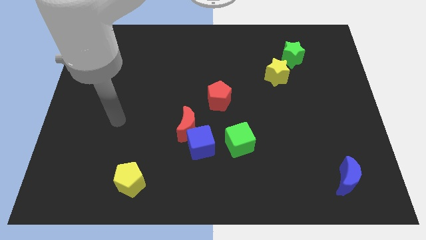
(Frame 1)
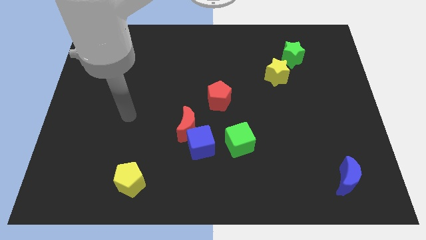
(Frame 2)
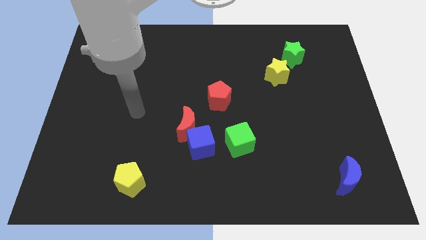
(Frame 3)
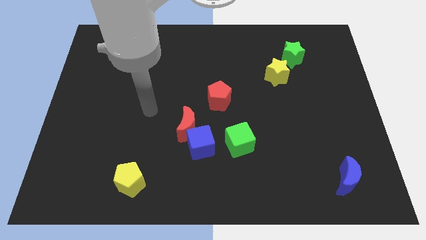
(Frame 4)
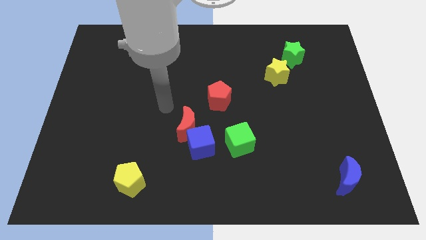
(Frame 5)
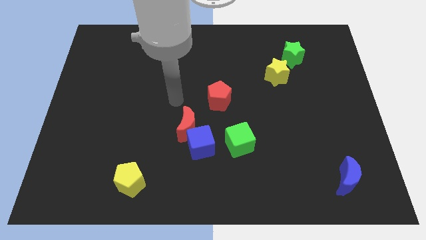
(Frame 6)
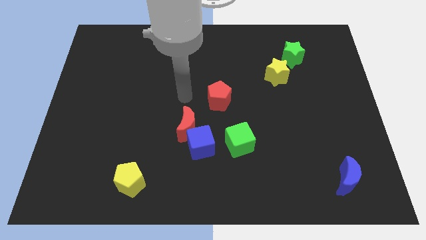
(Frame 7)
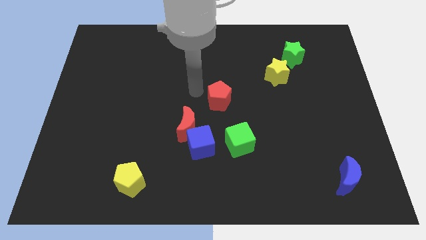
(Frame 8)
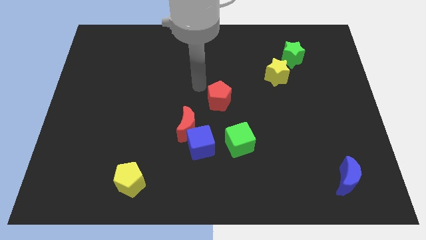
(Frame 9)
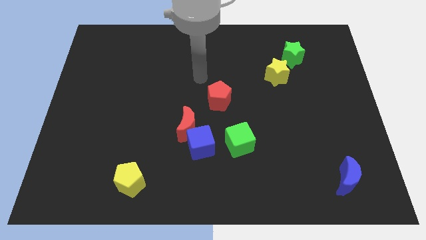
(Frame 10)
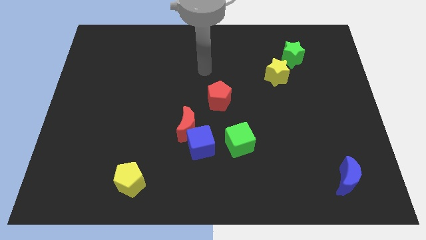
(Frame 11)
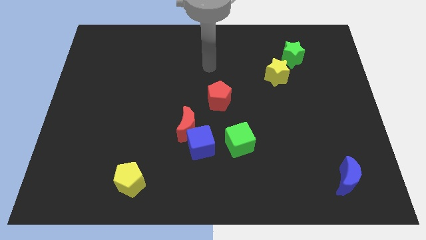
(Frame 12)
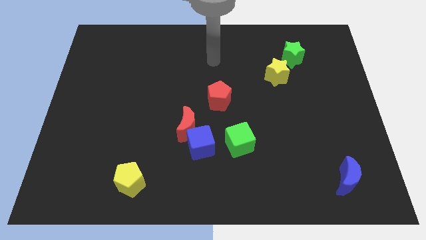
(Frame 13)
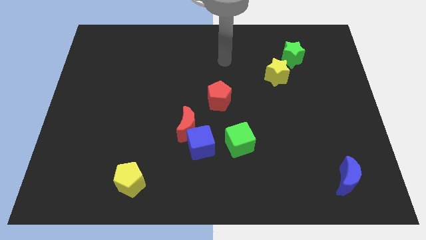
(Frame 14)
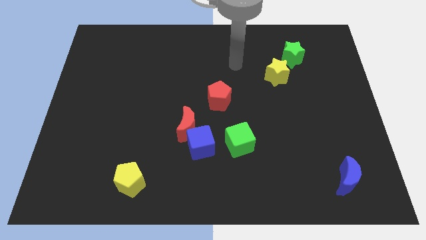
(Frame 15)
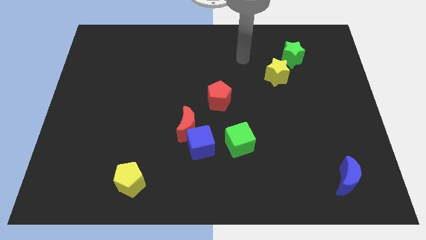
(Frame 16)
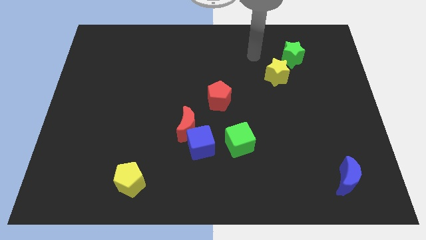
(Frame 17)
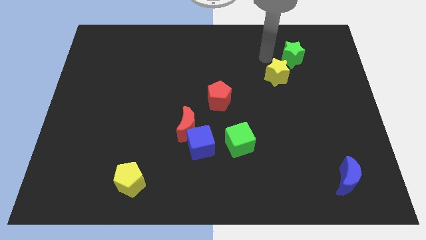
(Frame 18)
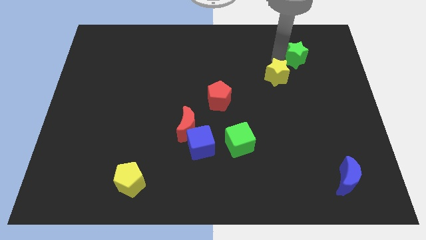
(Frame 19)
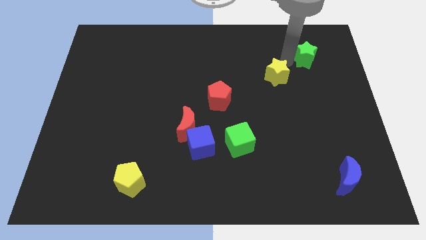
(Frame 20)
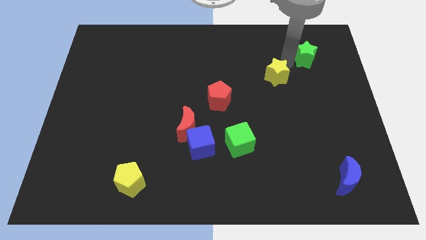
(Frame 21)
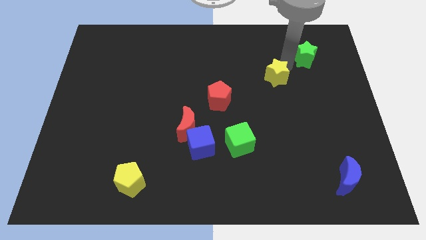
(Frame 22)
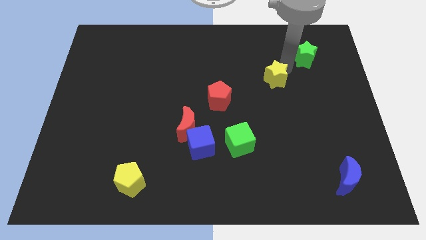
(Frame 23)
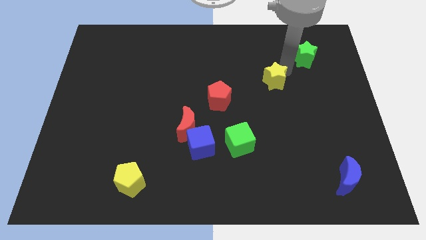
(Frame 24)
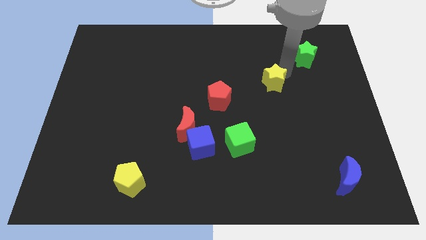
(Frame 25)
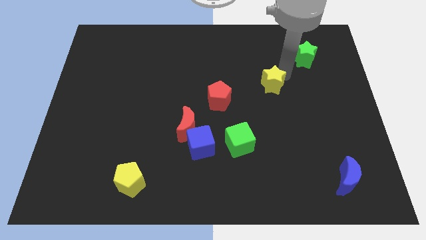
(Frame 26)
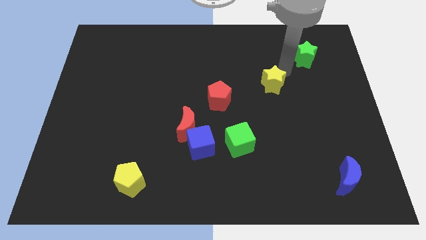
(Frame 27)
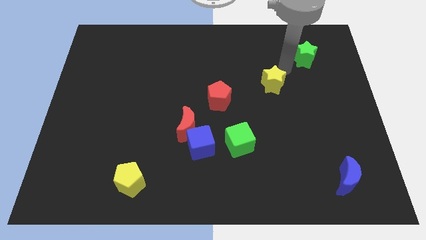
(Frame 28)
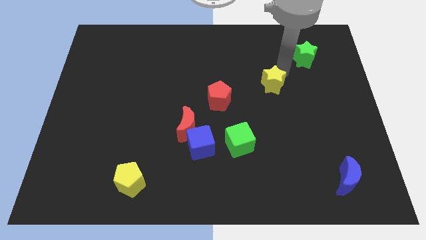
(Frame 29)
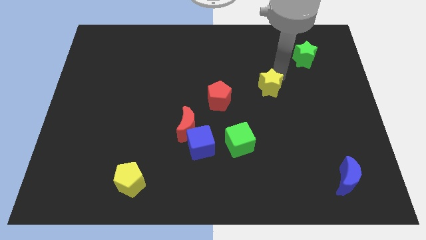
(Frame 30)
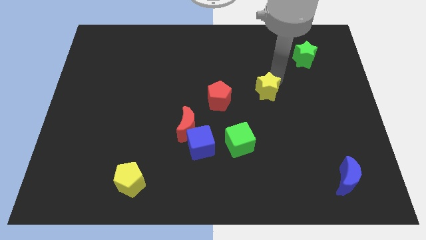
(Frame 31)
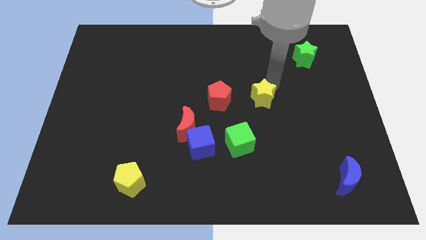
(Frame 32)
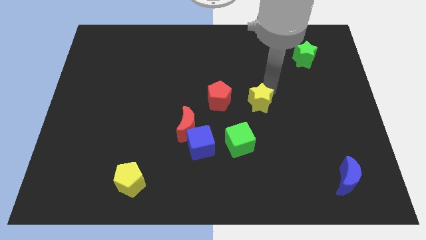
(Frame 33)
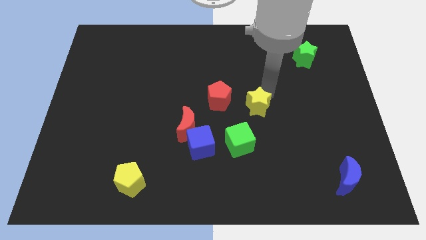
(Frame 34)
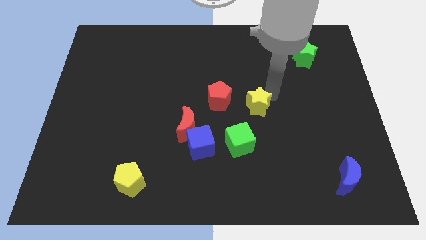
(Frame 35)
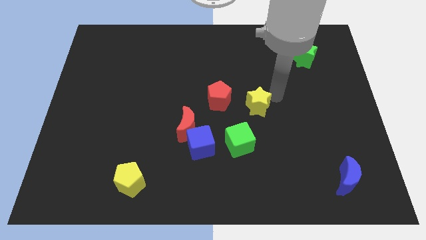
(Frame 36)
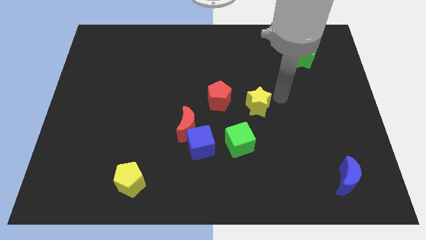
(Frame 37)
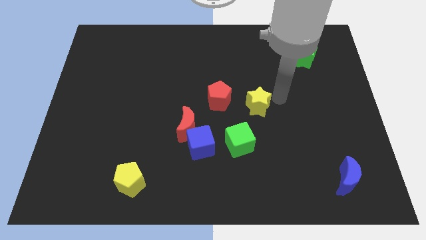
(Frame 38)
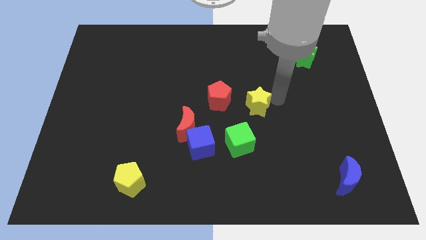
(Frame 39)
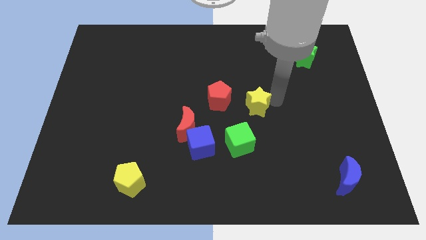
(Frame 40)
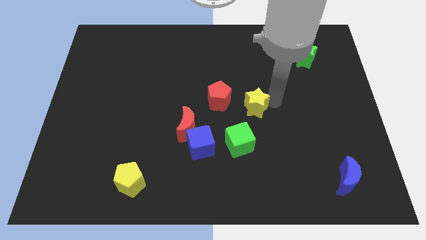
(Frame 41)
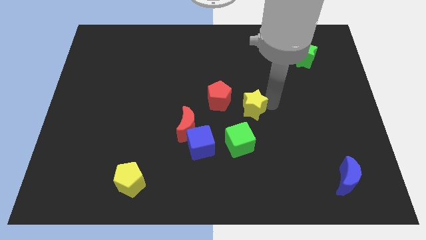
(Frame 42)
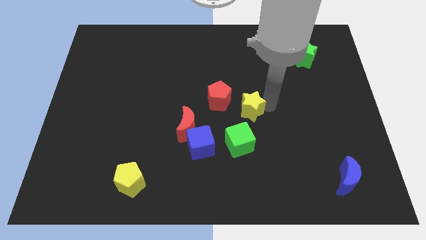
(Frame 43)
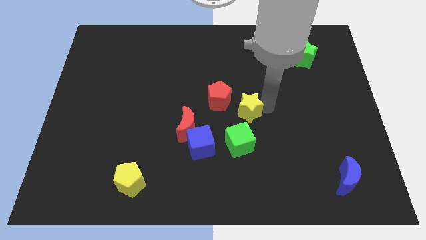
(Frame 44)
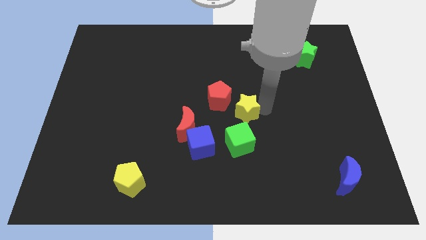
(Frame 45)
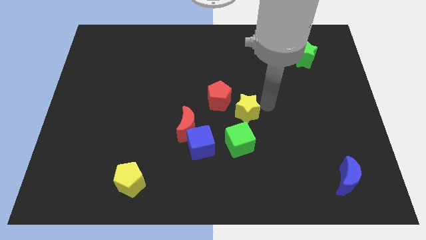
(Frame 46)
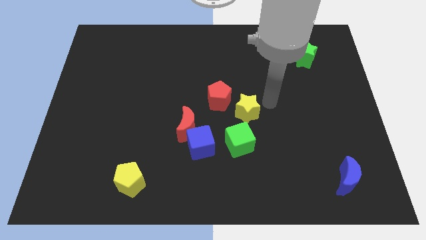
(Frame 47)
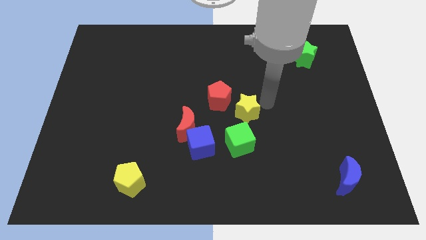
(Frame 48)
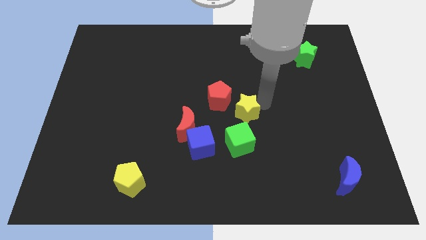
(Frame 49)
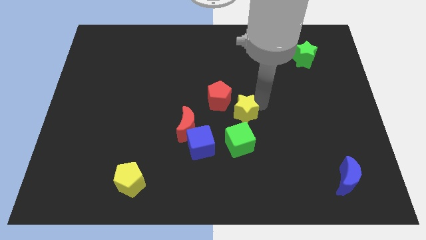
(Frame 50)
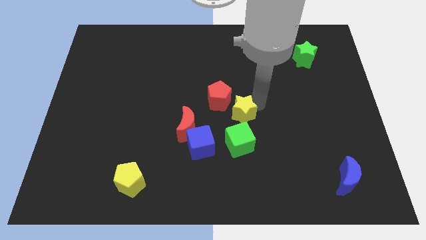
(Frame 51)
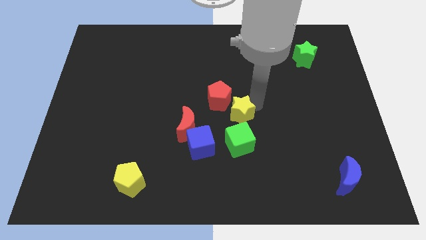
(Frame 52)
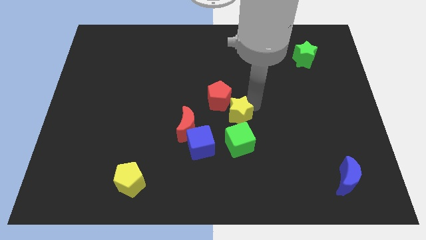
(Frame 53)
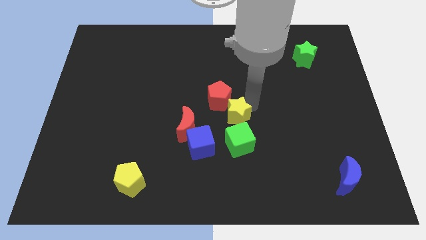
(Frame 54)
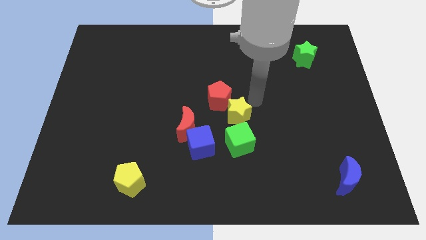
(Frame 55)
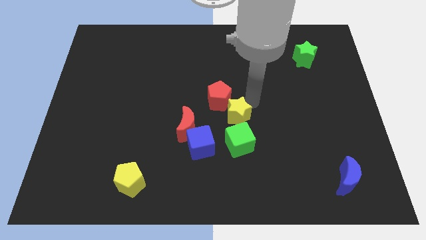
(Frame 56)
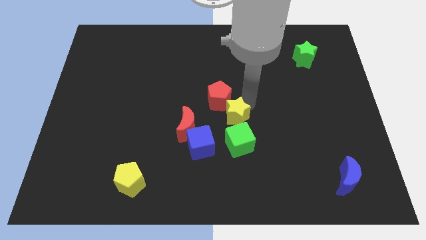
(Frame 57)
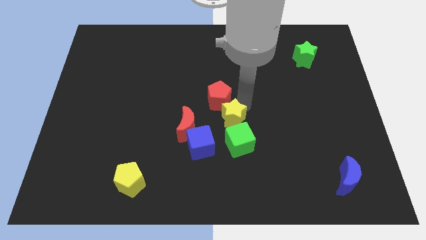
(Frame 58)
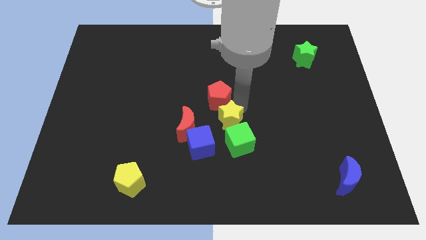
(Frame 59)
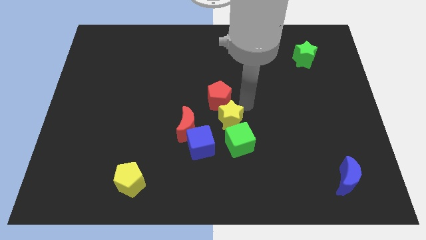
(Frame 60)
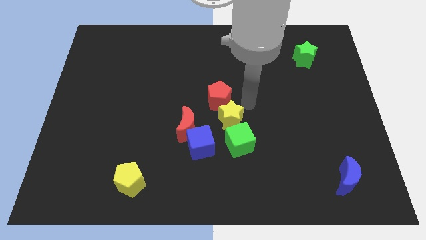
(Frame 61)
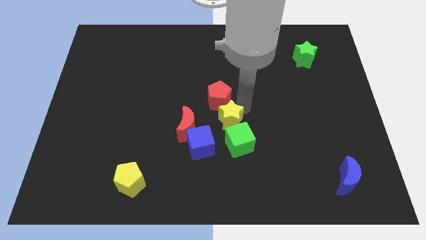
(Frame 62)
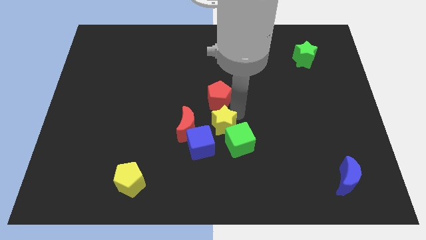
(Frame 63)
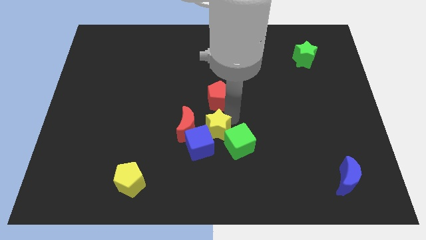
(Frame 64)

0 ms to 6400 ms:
push the yellow star close to the blue cube
